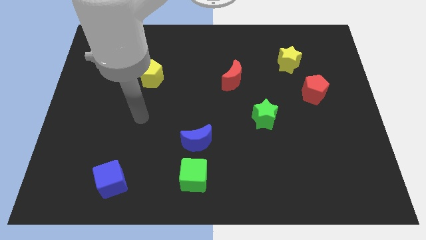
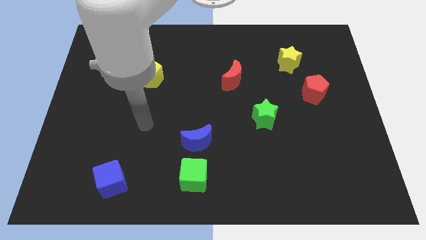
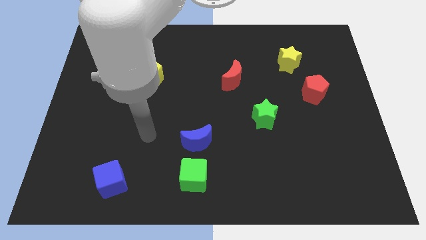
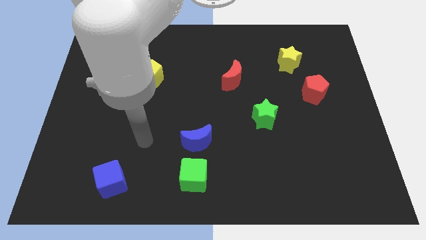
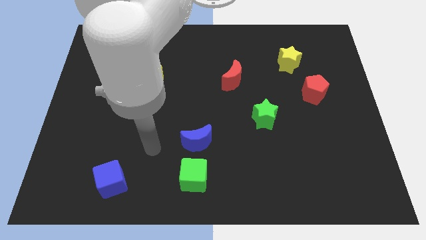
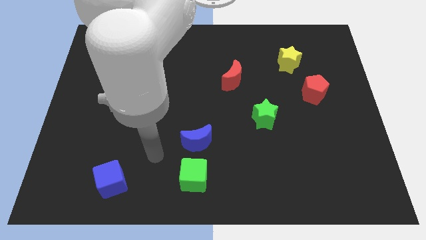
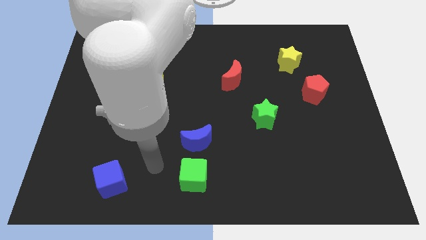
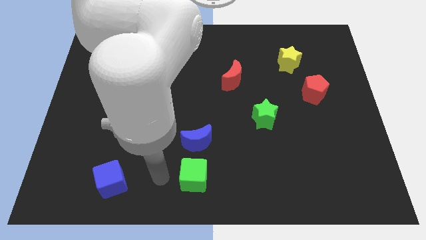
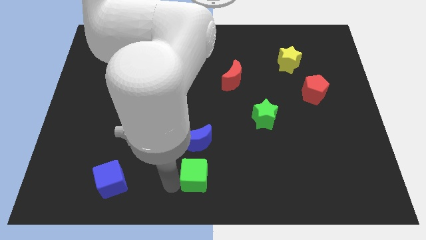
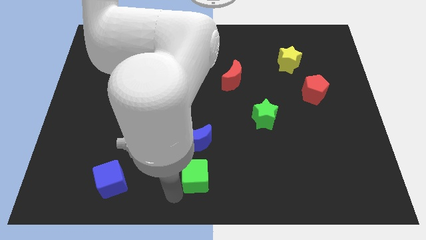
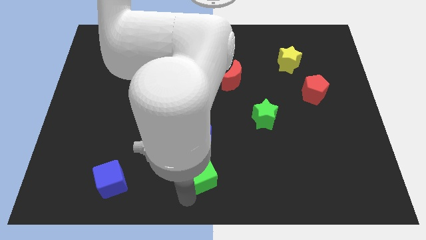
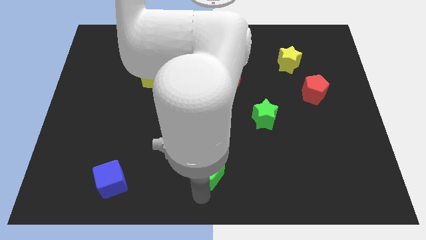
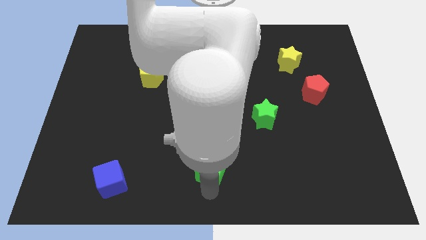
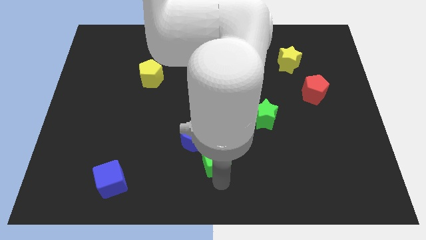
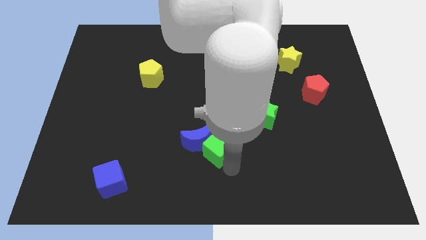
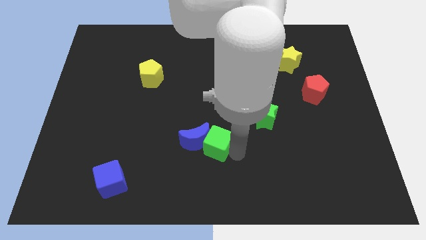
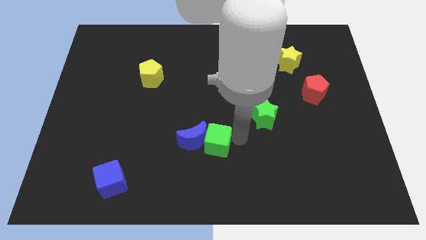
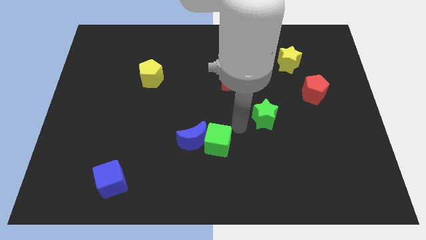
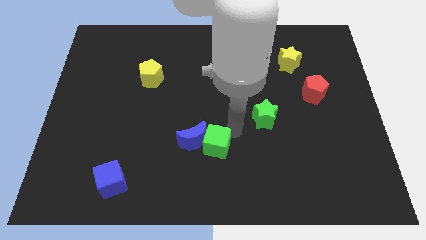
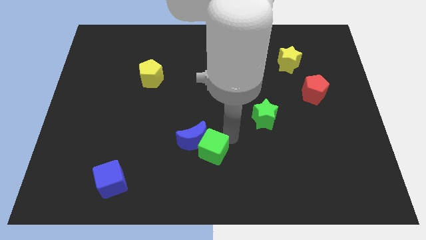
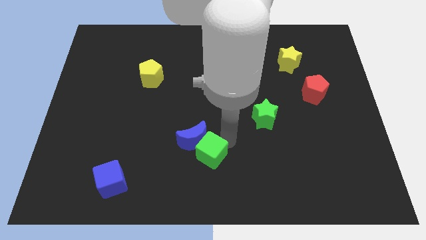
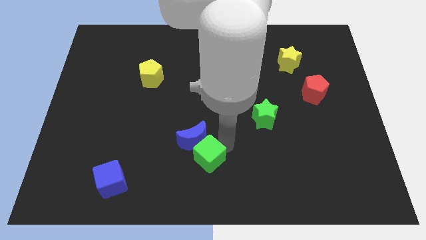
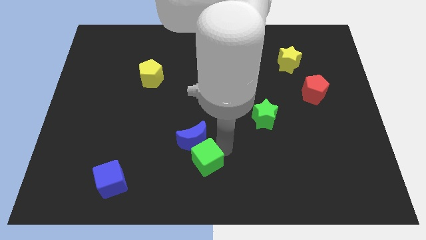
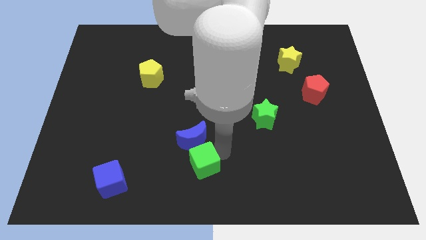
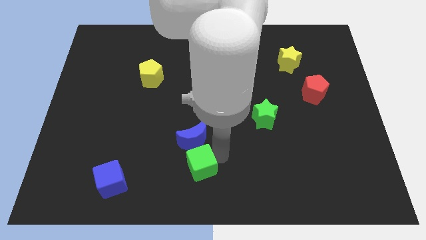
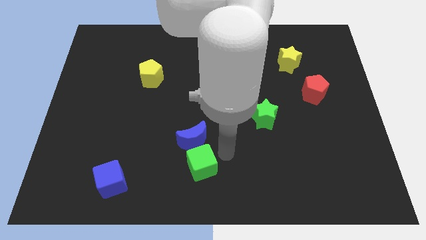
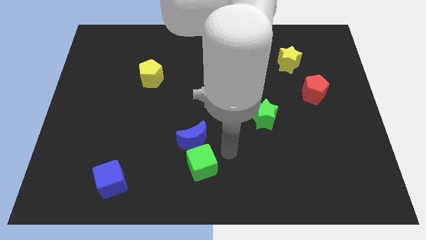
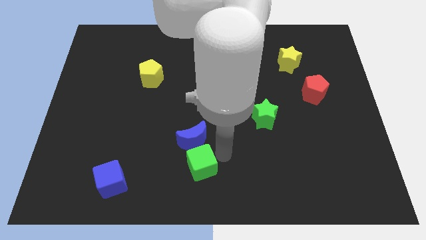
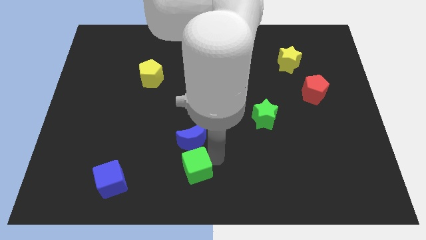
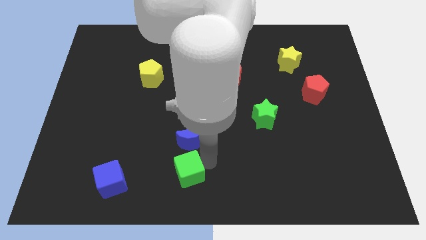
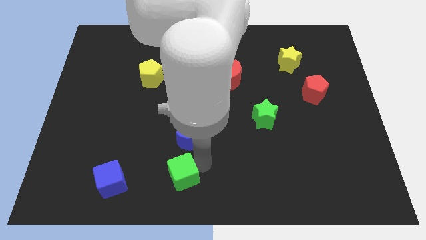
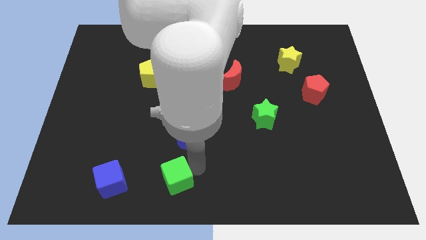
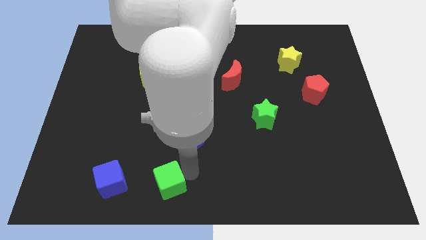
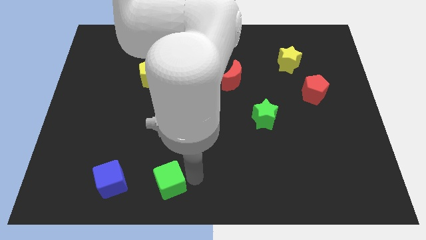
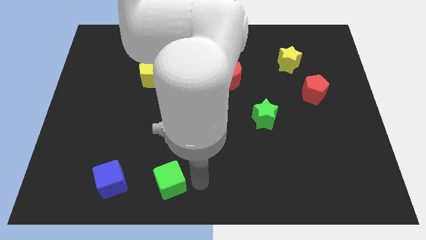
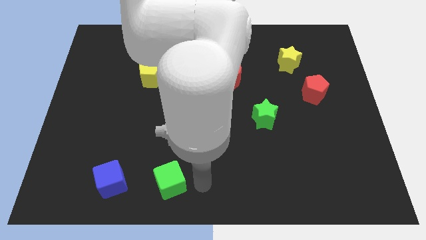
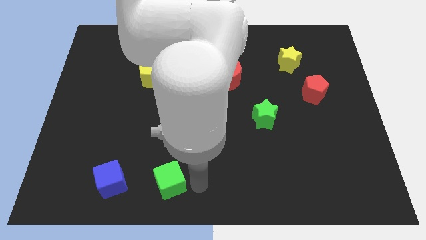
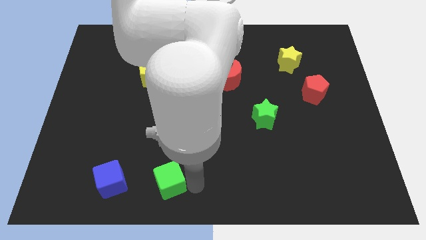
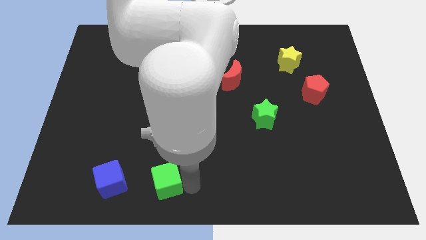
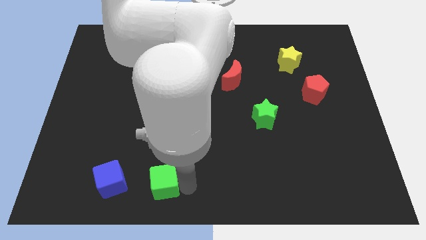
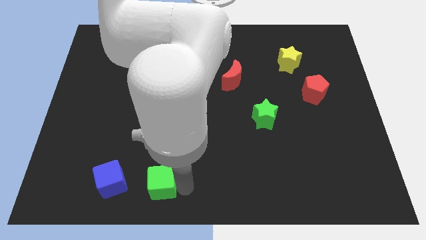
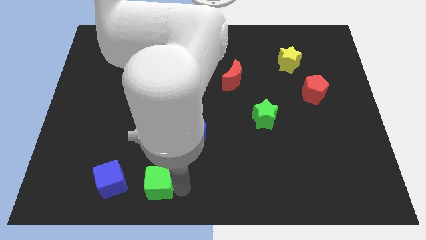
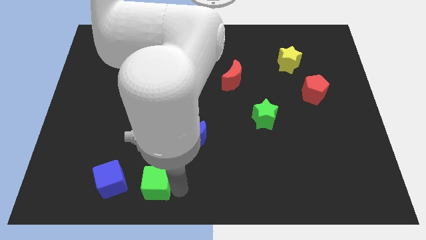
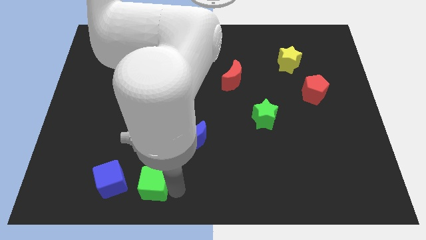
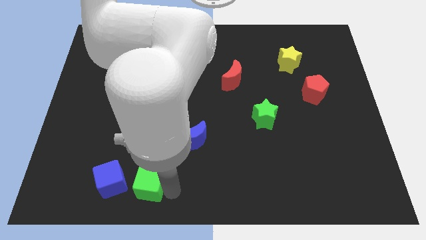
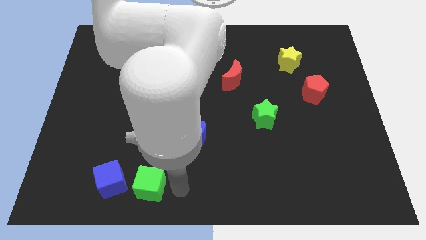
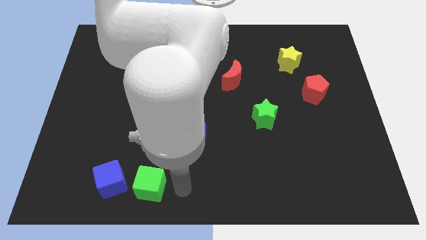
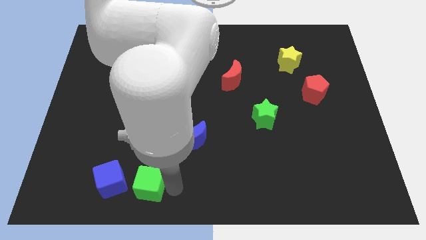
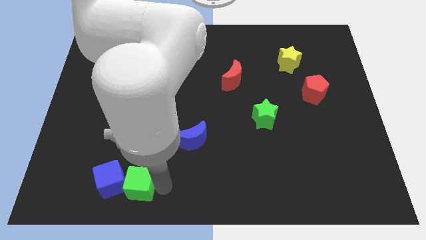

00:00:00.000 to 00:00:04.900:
put the green cube next to the blue cube

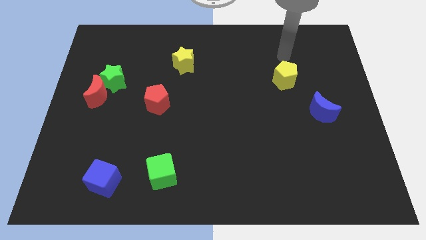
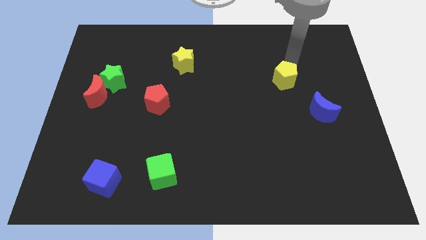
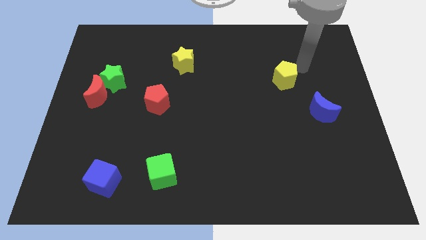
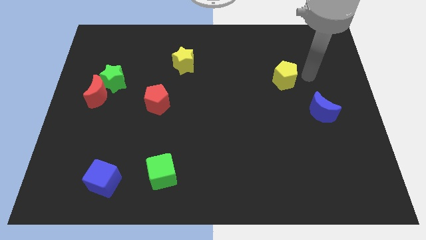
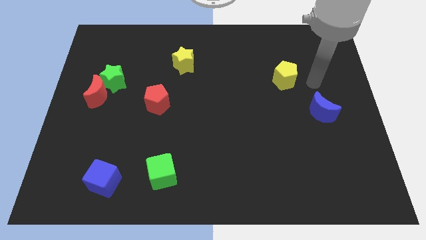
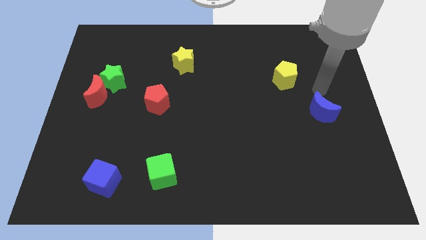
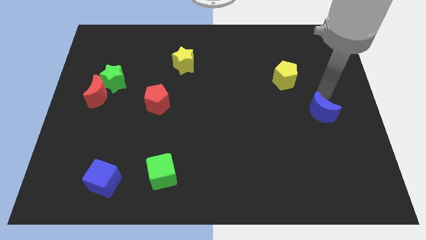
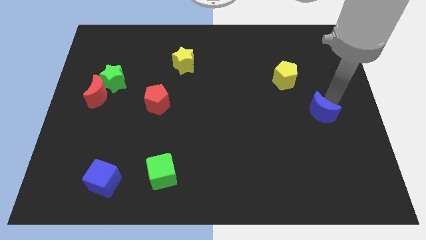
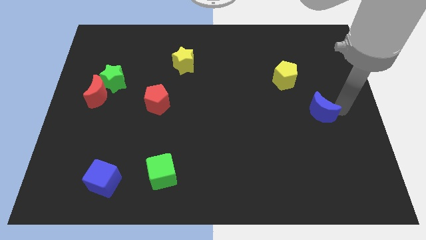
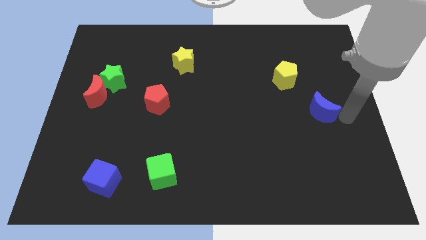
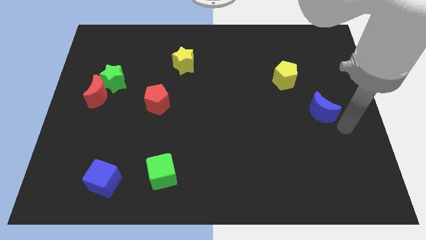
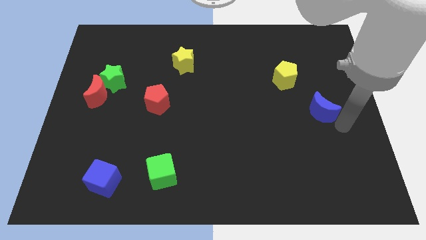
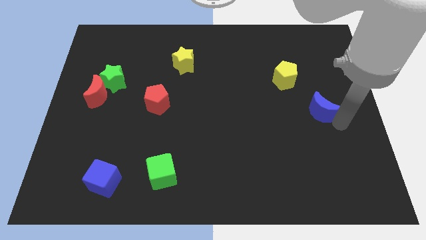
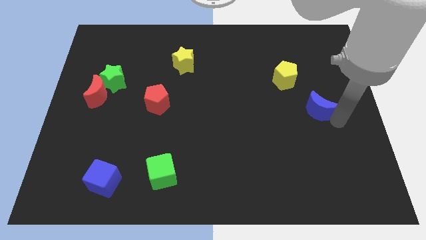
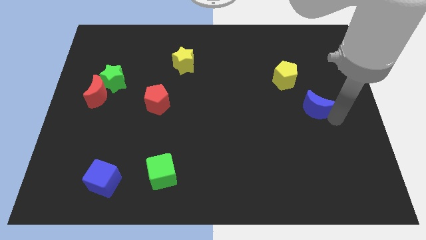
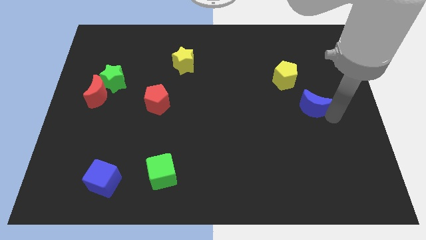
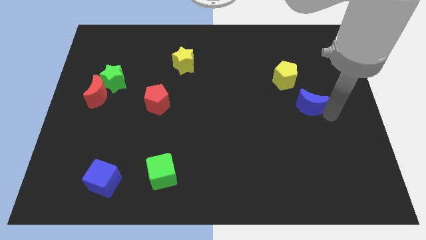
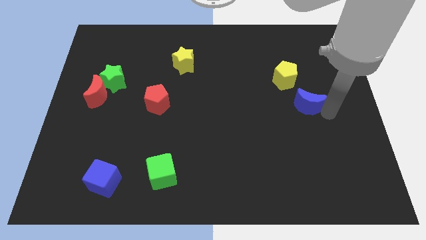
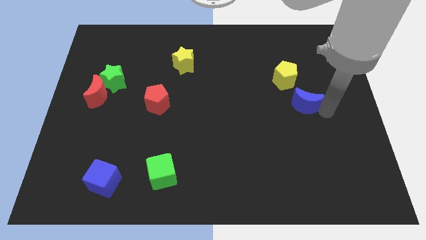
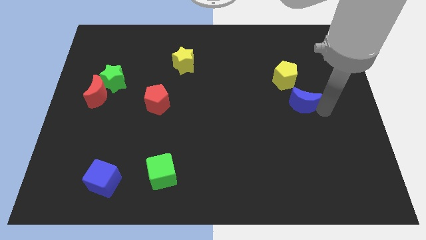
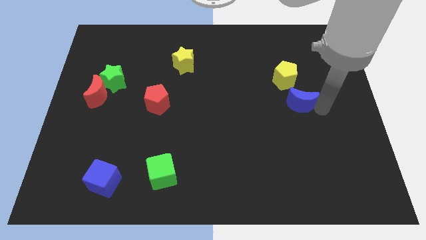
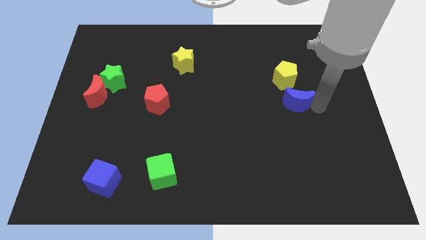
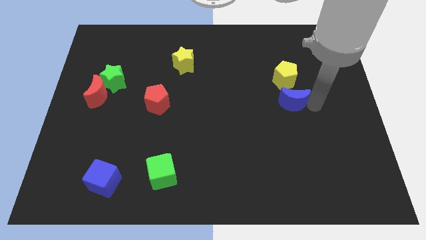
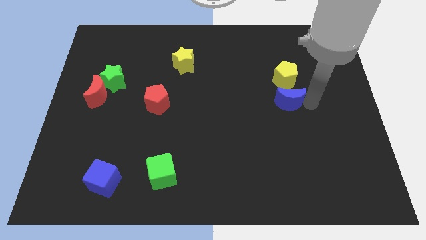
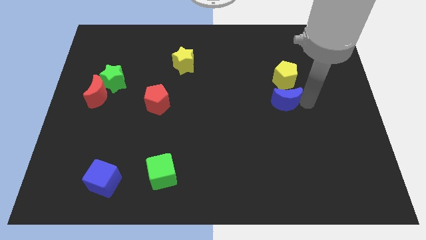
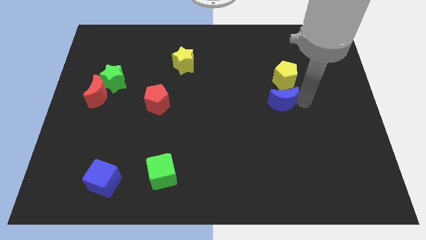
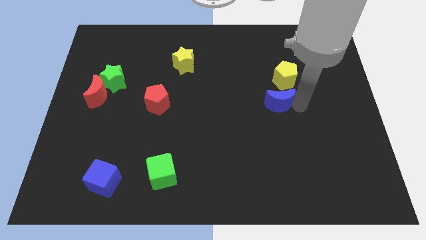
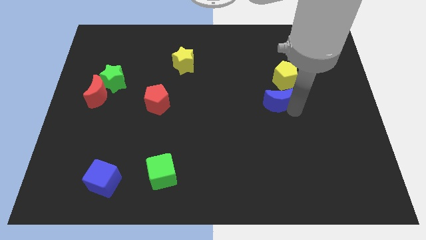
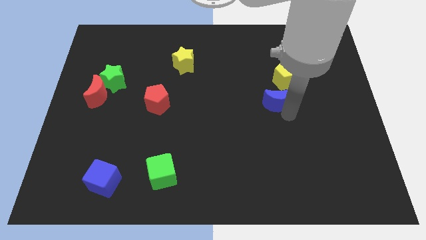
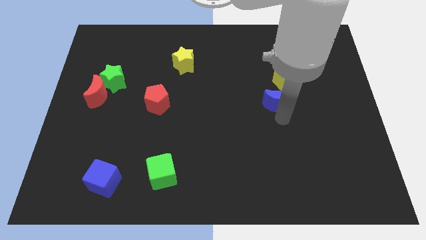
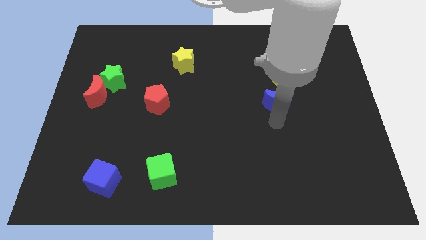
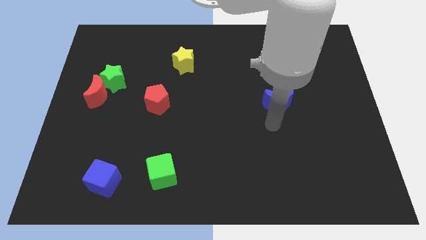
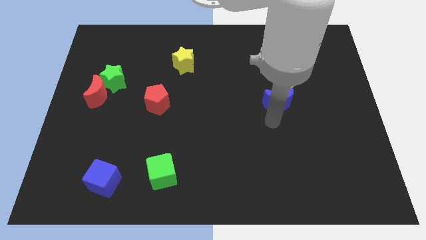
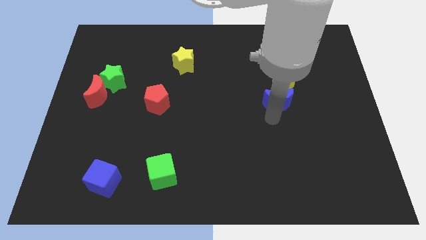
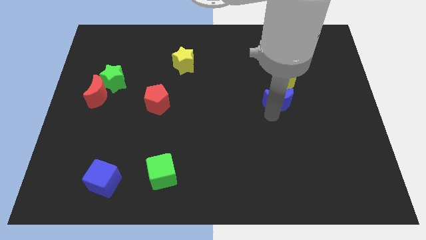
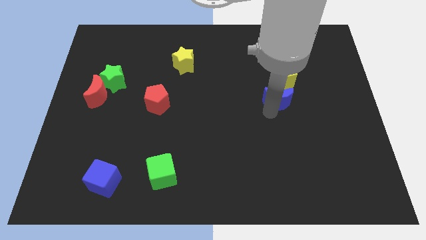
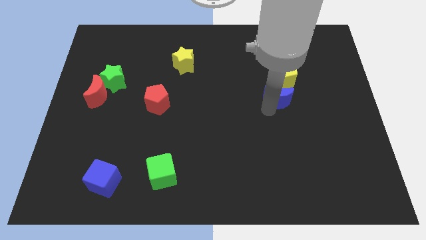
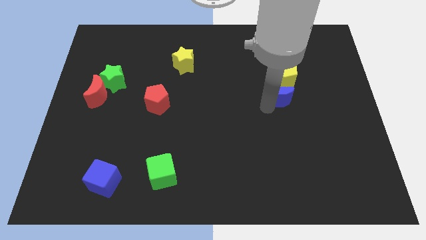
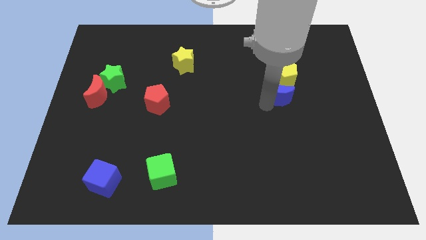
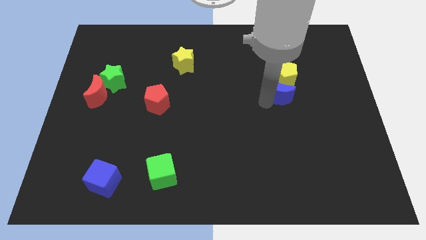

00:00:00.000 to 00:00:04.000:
move the blue moon to the yellow pentagon
